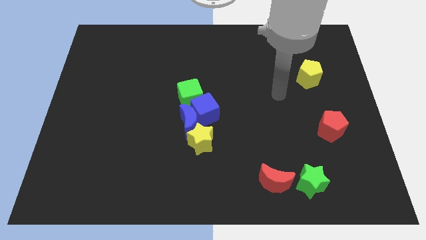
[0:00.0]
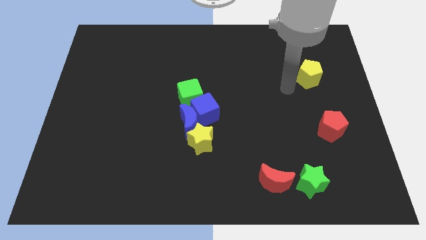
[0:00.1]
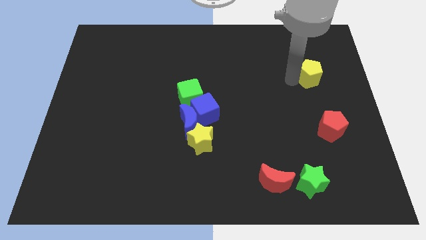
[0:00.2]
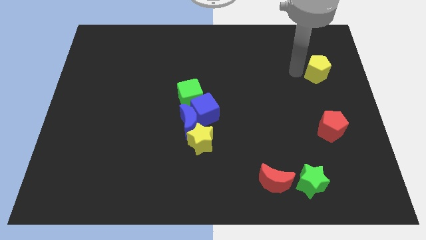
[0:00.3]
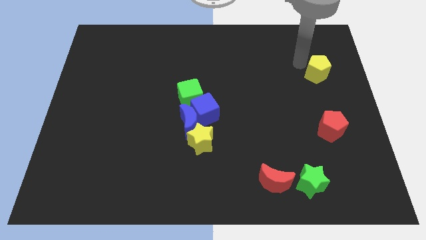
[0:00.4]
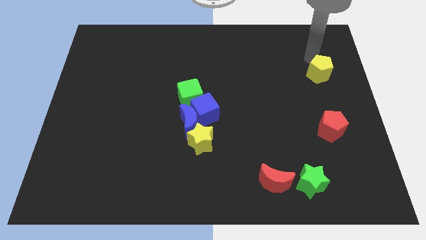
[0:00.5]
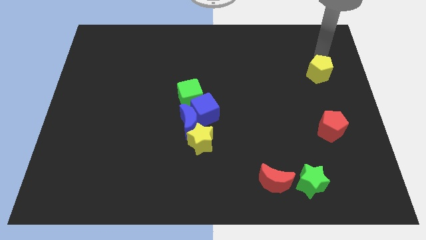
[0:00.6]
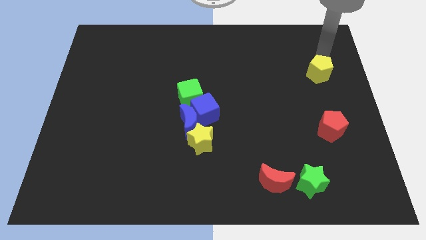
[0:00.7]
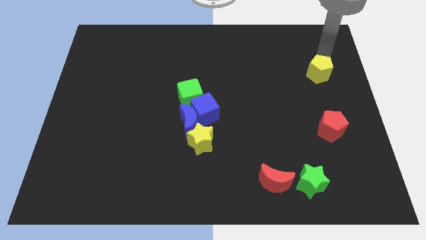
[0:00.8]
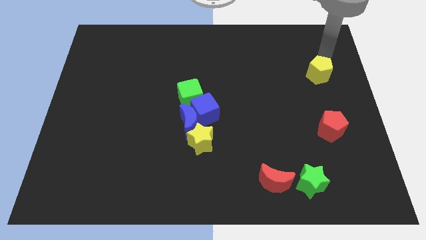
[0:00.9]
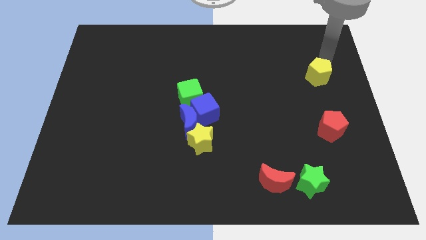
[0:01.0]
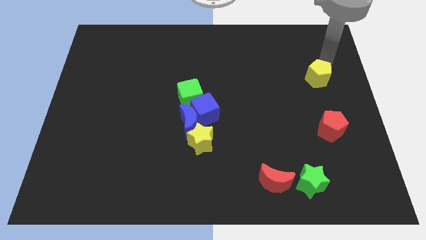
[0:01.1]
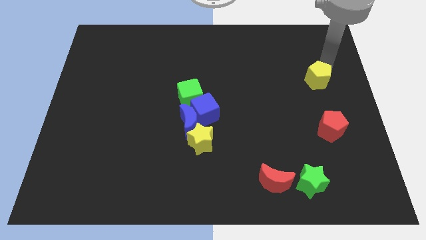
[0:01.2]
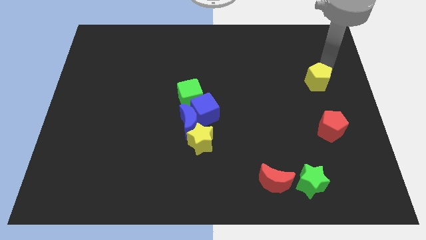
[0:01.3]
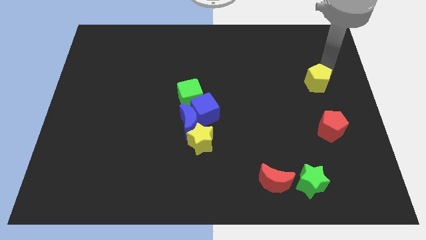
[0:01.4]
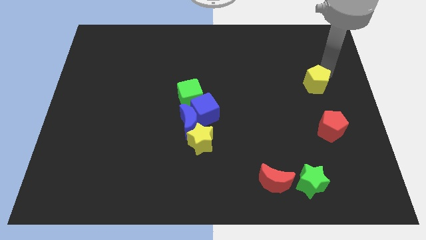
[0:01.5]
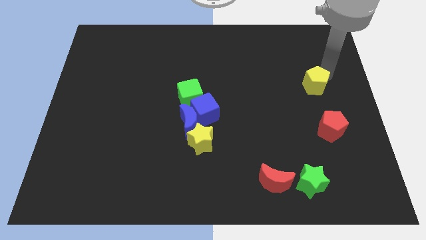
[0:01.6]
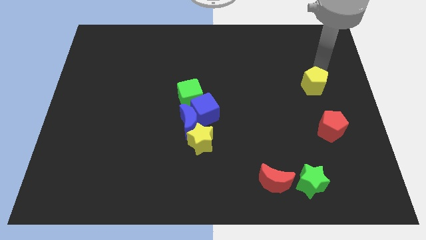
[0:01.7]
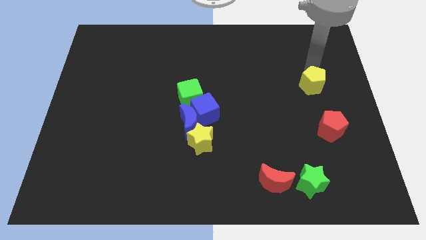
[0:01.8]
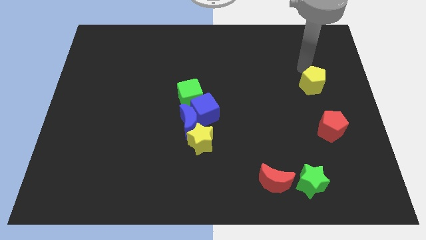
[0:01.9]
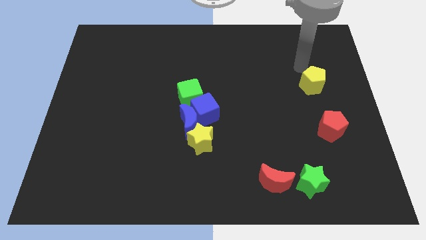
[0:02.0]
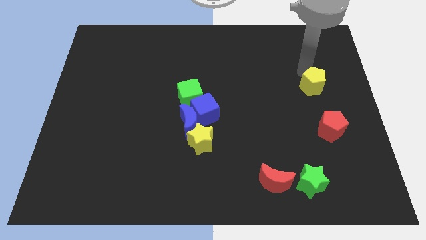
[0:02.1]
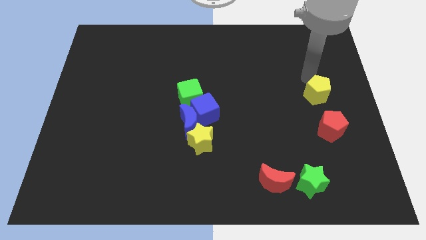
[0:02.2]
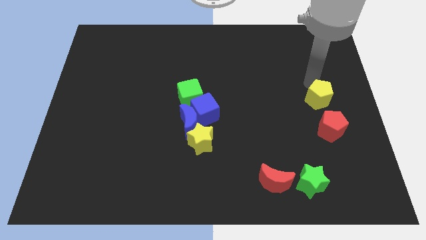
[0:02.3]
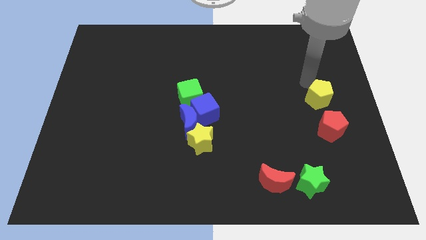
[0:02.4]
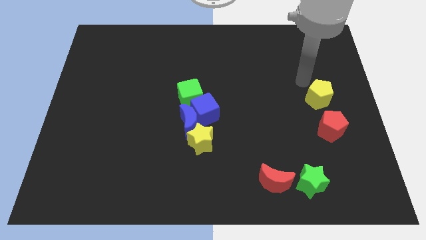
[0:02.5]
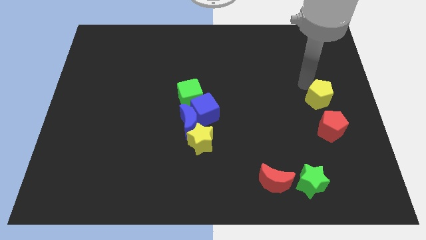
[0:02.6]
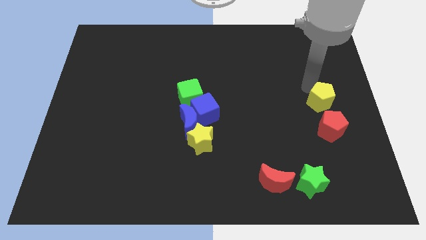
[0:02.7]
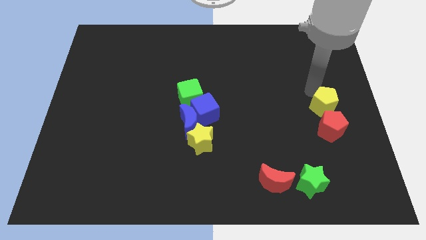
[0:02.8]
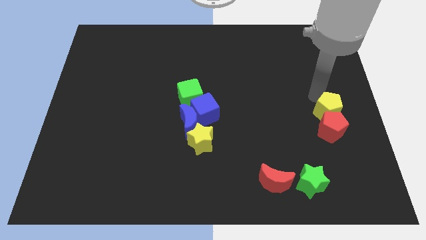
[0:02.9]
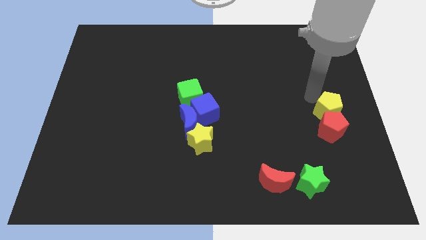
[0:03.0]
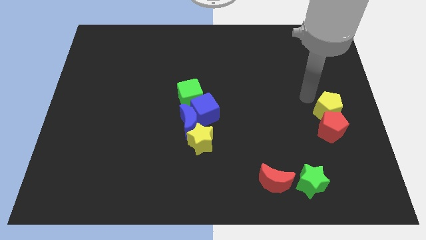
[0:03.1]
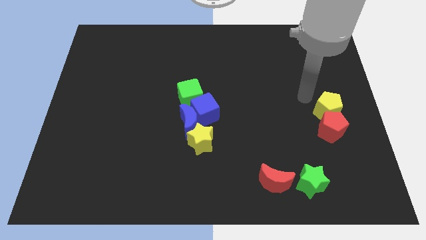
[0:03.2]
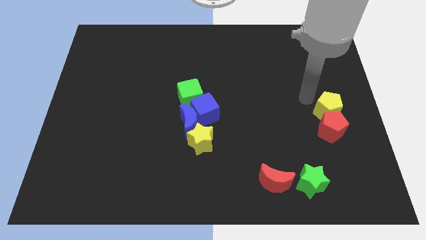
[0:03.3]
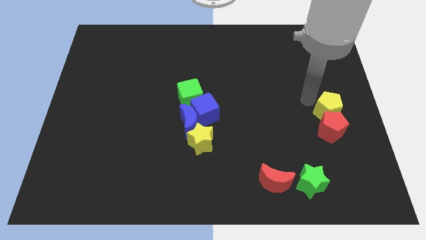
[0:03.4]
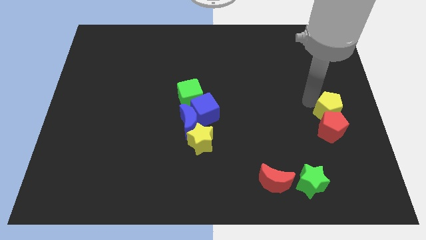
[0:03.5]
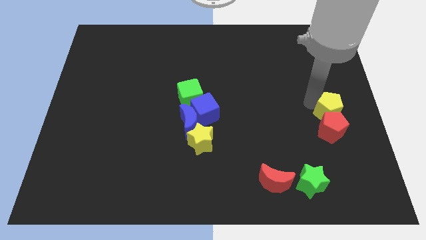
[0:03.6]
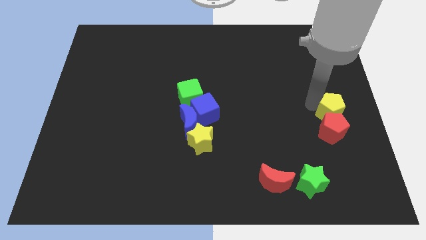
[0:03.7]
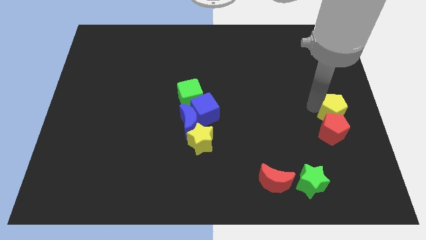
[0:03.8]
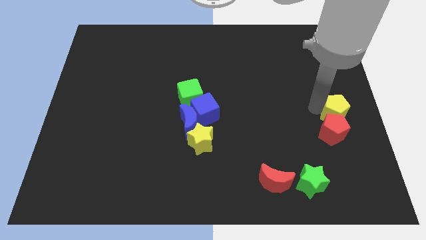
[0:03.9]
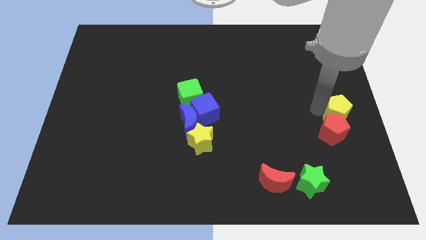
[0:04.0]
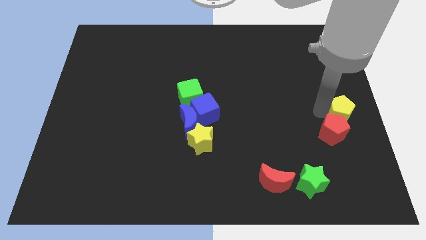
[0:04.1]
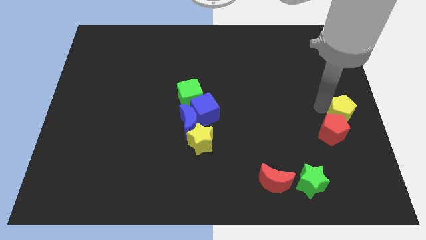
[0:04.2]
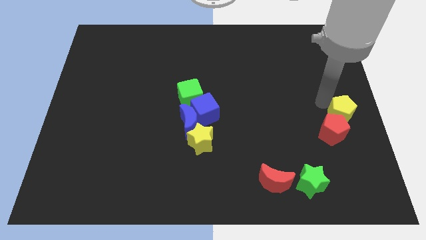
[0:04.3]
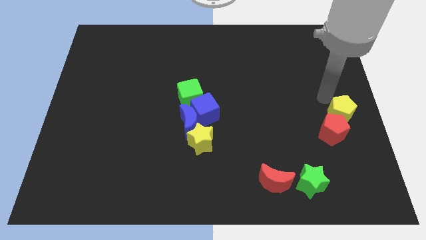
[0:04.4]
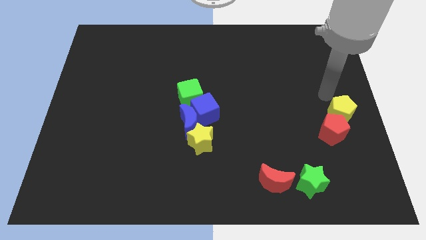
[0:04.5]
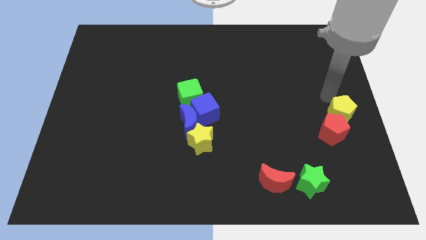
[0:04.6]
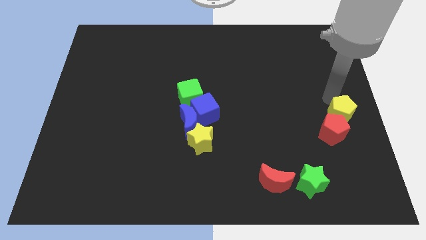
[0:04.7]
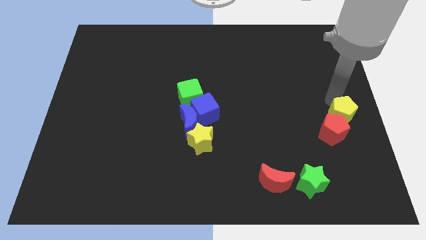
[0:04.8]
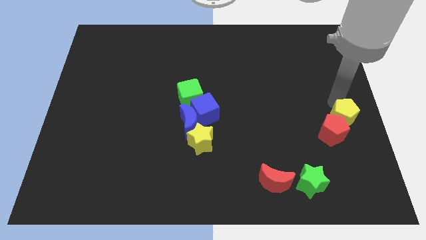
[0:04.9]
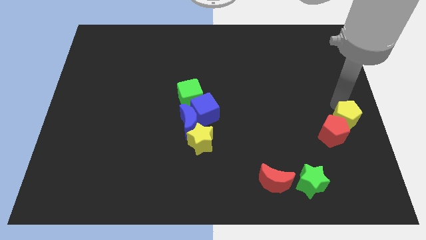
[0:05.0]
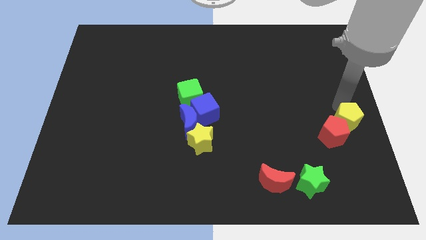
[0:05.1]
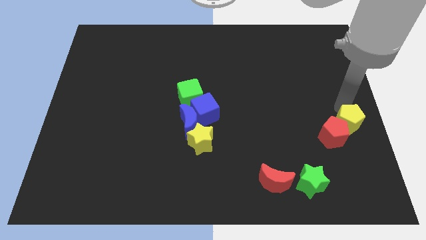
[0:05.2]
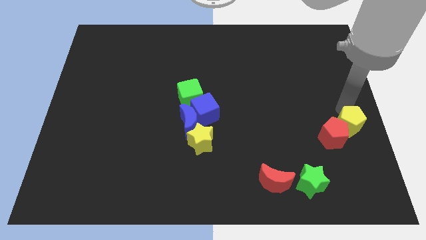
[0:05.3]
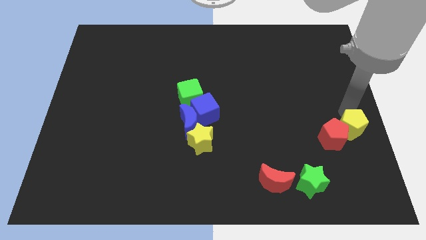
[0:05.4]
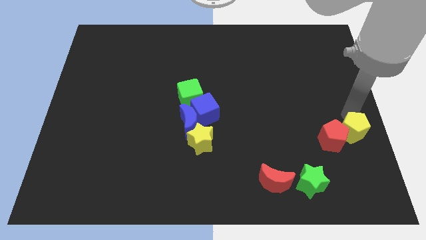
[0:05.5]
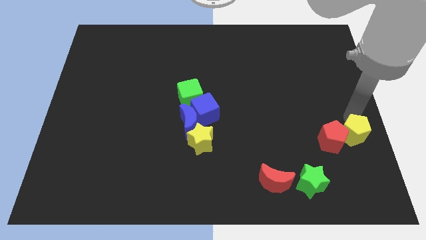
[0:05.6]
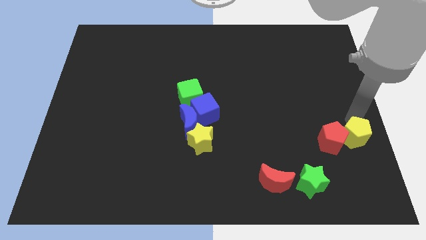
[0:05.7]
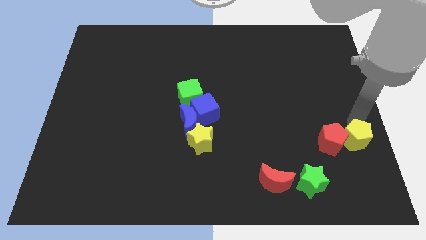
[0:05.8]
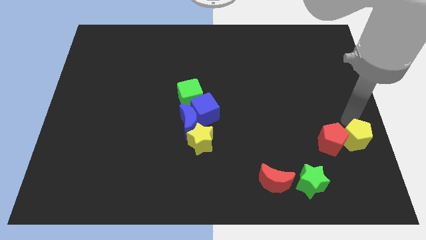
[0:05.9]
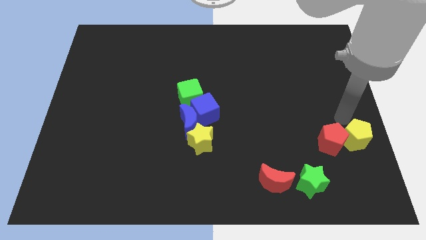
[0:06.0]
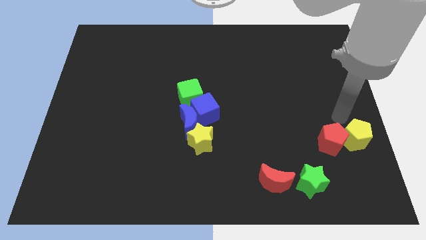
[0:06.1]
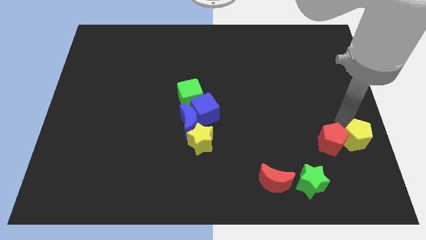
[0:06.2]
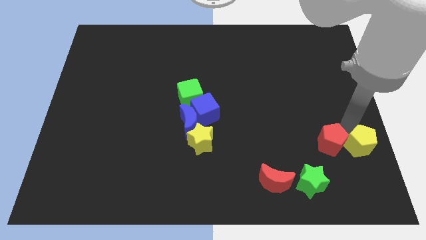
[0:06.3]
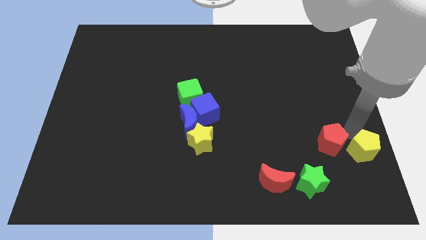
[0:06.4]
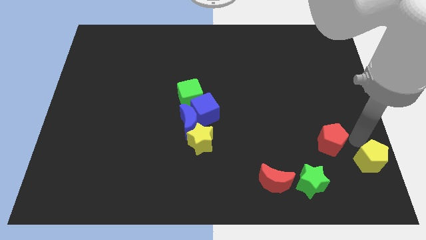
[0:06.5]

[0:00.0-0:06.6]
move the yellow pentagon to the bottom right corner

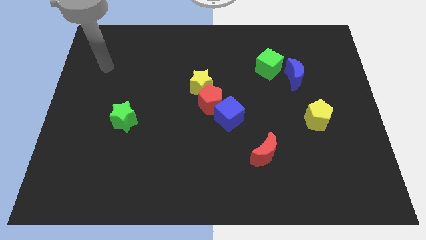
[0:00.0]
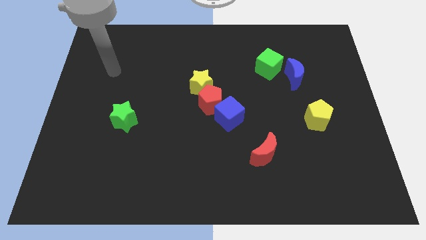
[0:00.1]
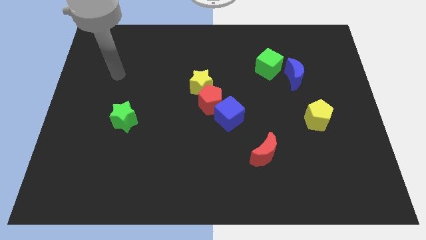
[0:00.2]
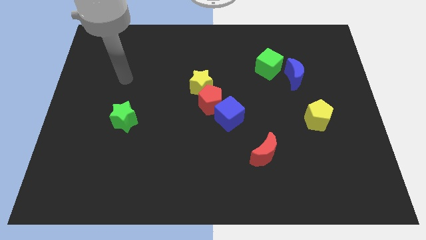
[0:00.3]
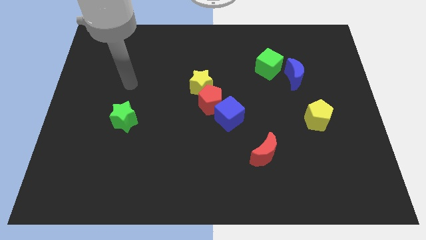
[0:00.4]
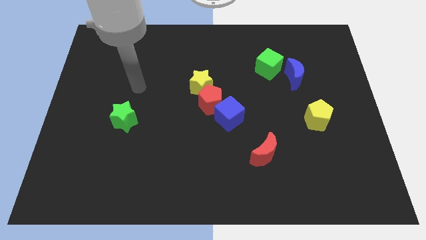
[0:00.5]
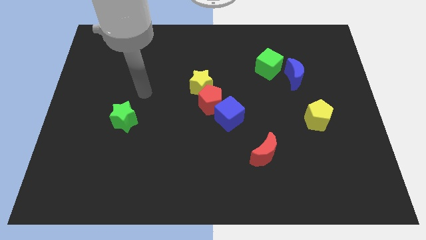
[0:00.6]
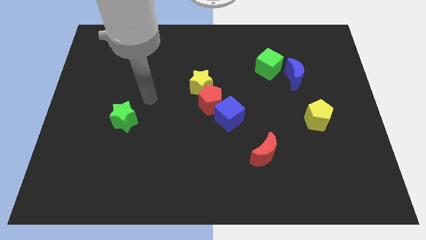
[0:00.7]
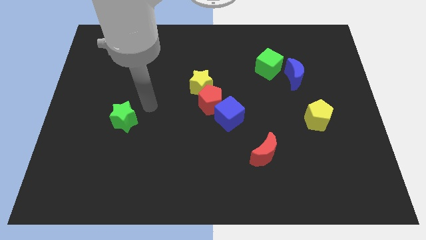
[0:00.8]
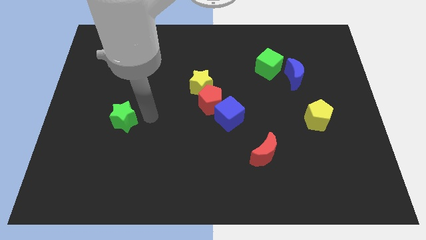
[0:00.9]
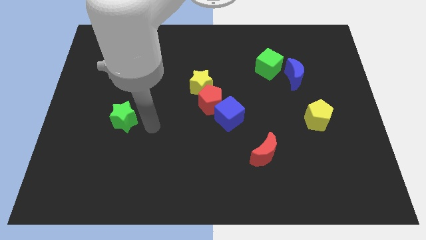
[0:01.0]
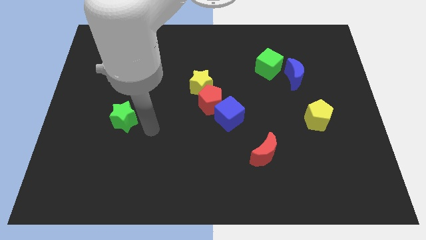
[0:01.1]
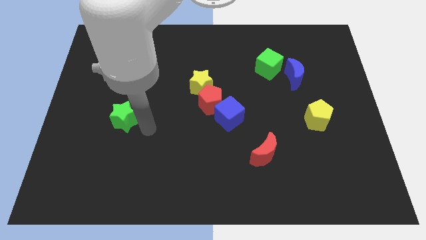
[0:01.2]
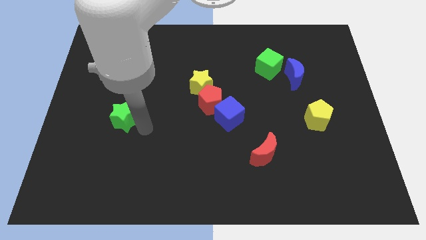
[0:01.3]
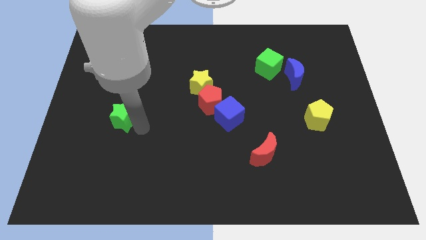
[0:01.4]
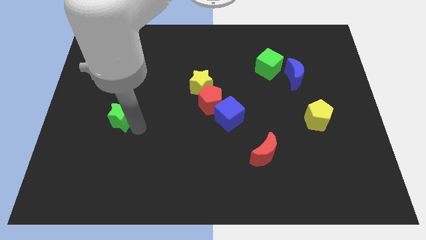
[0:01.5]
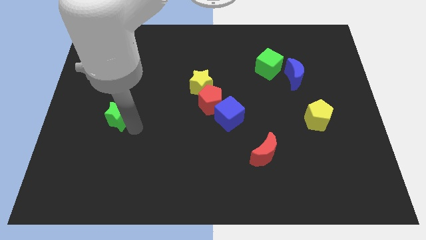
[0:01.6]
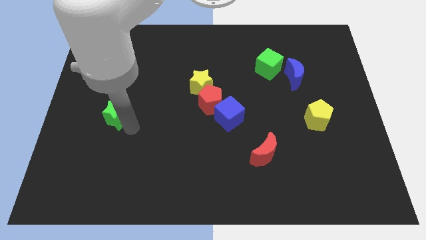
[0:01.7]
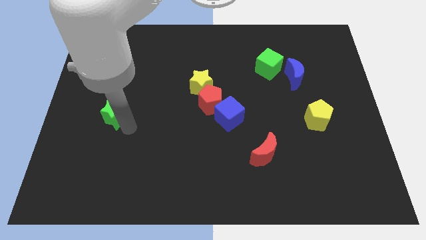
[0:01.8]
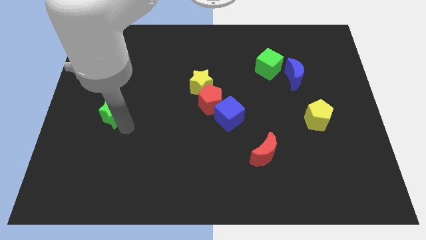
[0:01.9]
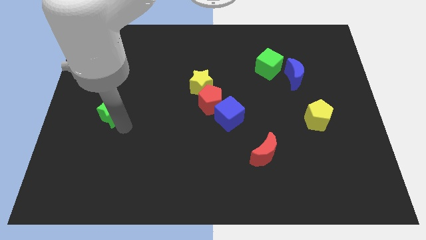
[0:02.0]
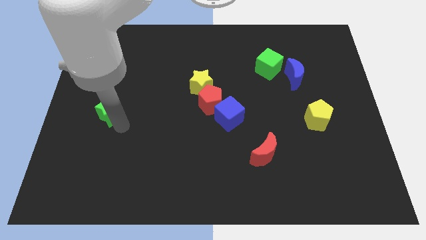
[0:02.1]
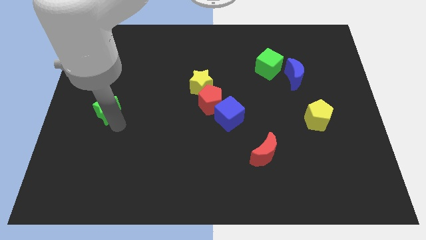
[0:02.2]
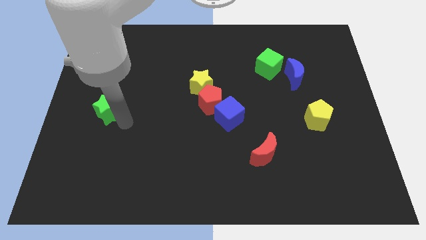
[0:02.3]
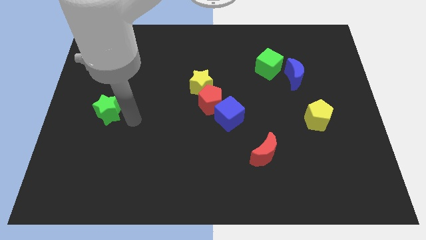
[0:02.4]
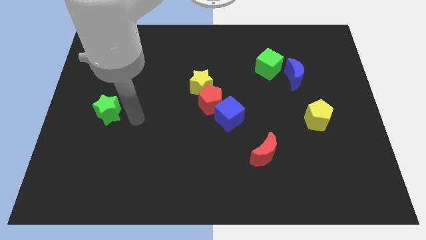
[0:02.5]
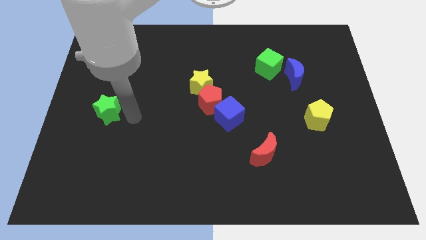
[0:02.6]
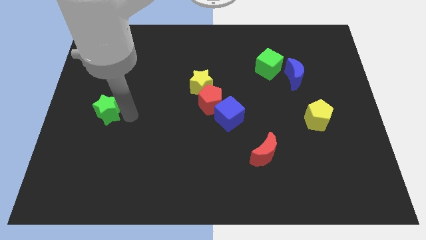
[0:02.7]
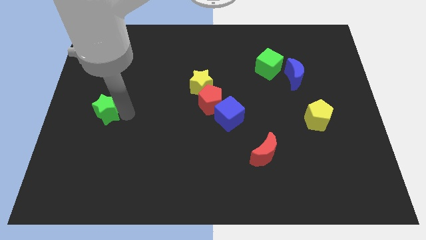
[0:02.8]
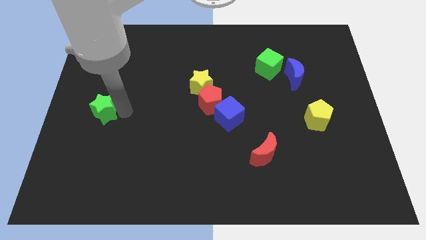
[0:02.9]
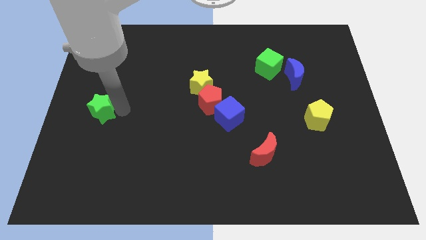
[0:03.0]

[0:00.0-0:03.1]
put the green star to the center left
